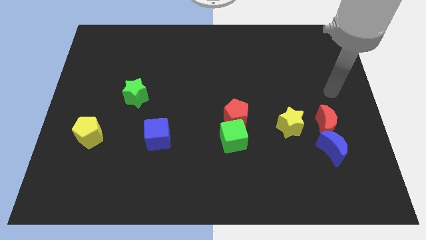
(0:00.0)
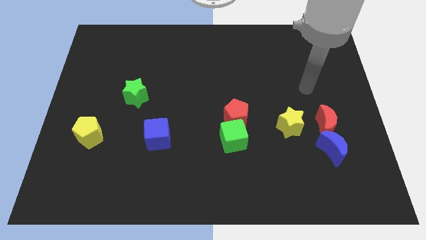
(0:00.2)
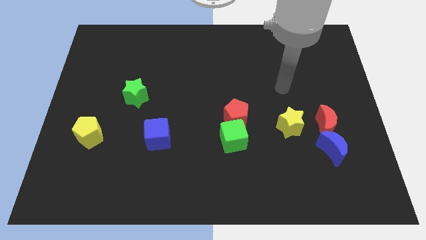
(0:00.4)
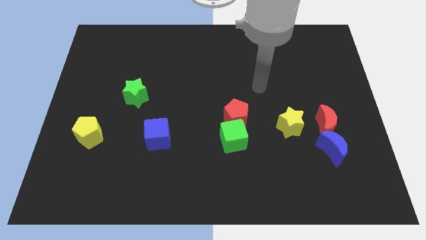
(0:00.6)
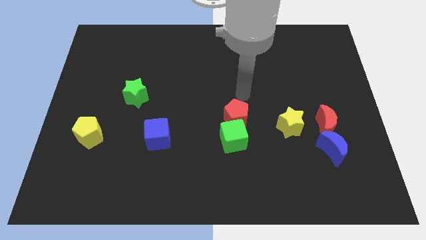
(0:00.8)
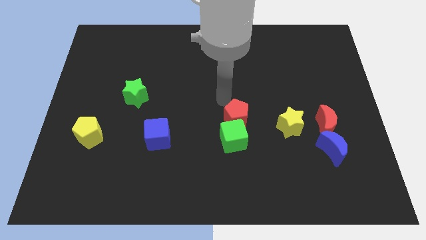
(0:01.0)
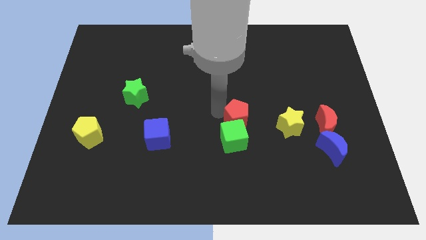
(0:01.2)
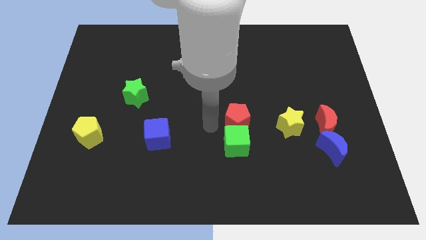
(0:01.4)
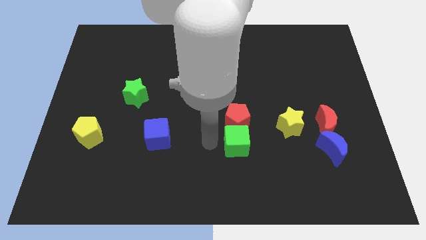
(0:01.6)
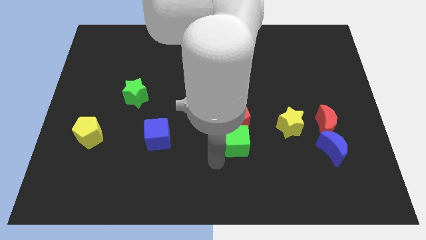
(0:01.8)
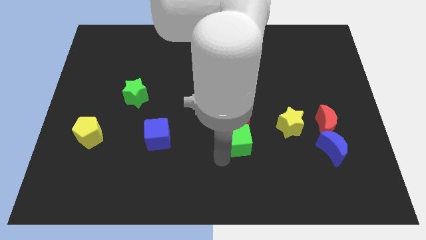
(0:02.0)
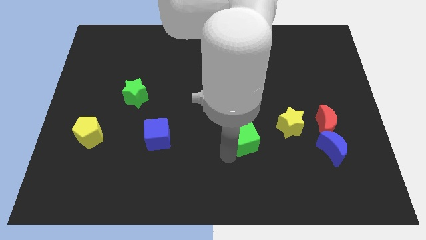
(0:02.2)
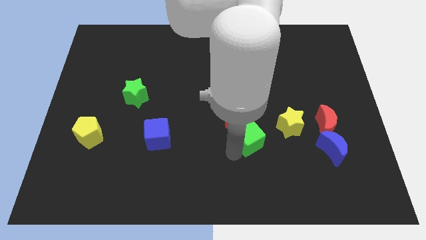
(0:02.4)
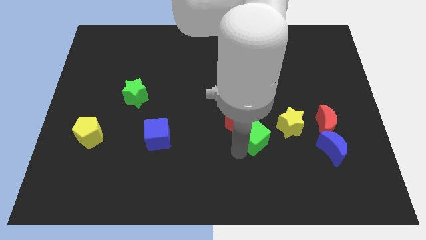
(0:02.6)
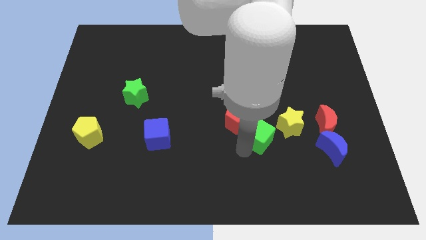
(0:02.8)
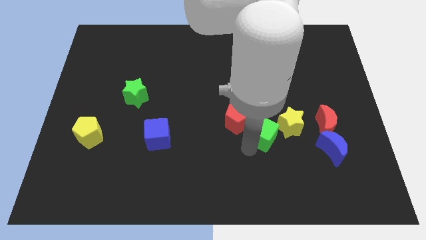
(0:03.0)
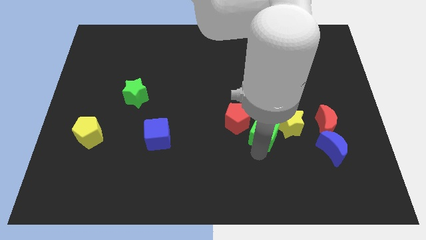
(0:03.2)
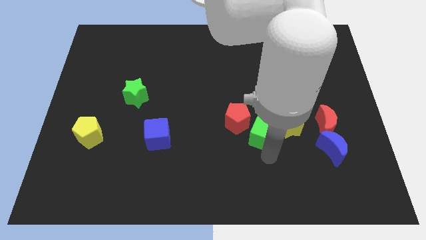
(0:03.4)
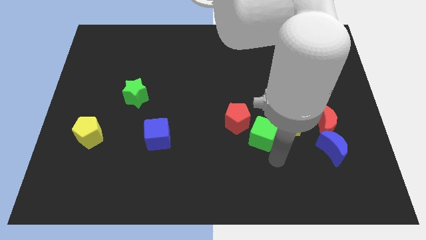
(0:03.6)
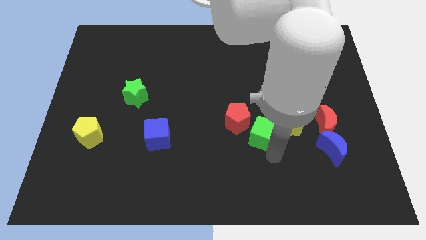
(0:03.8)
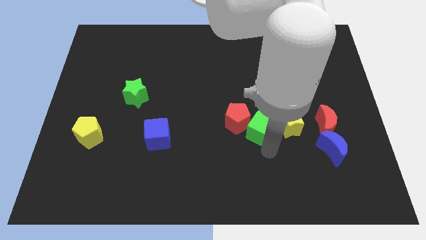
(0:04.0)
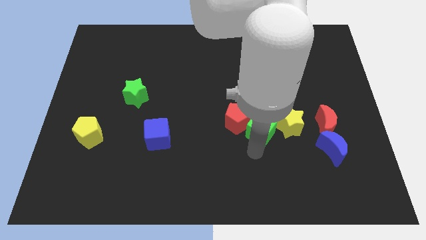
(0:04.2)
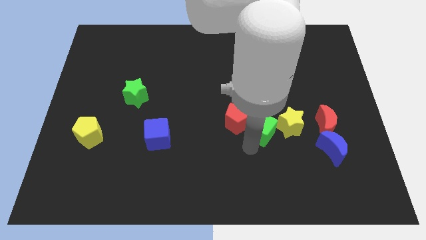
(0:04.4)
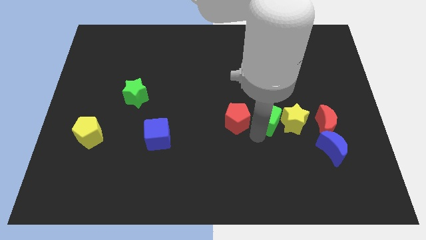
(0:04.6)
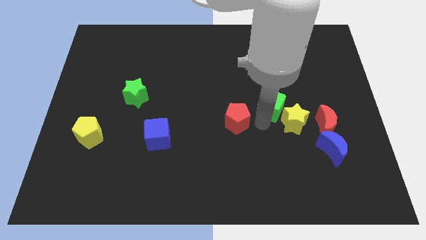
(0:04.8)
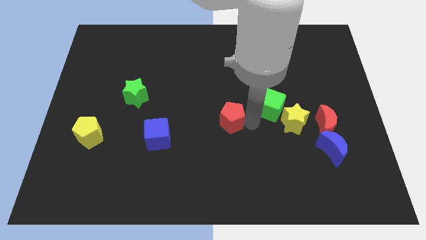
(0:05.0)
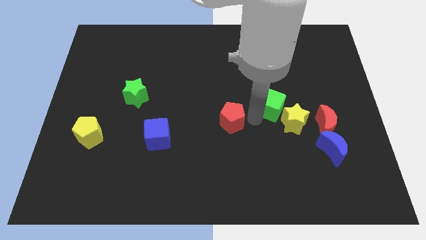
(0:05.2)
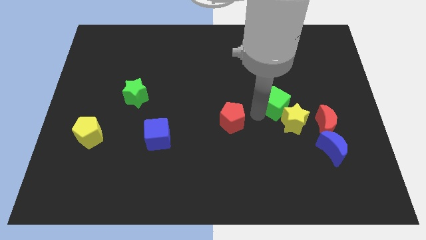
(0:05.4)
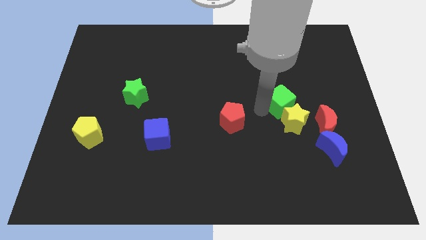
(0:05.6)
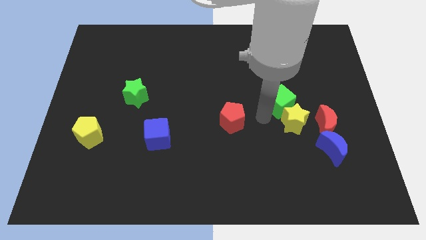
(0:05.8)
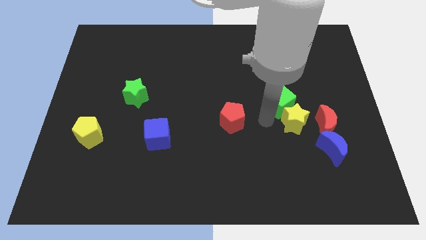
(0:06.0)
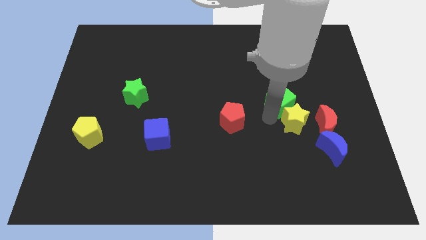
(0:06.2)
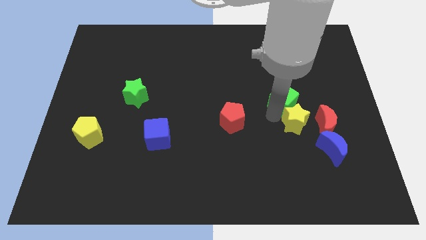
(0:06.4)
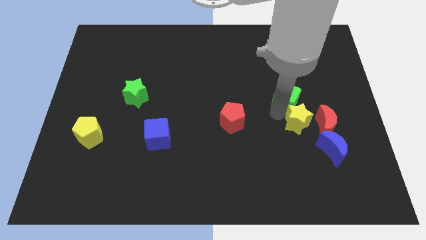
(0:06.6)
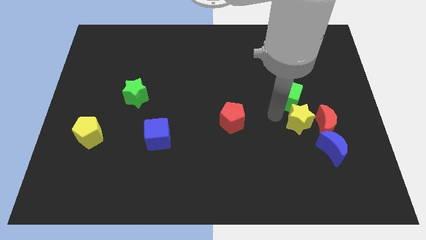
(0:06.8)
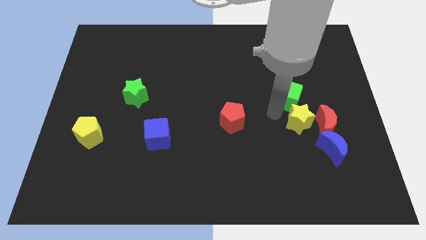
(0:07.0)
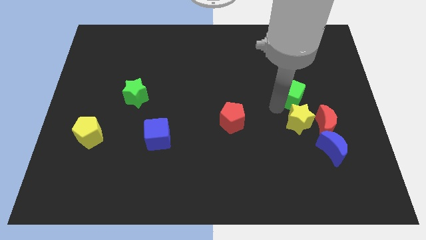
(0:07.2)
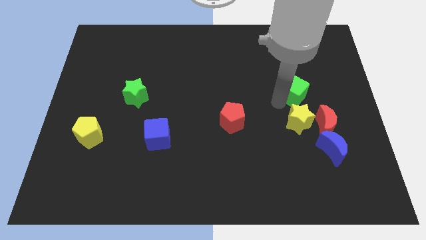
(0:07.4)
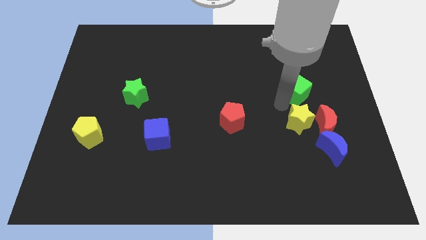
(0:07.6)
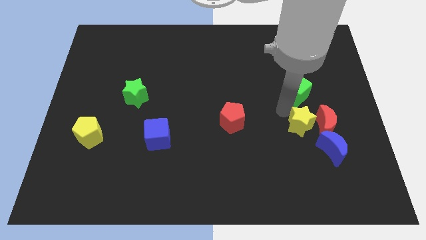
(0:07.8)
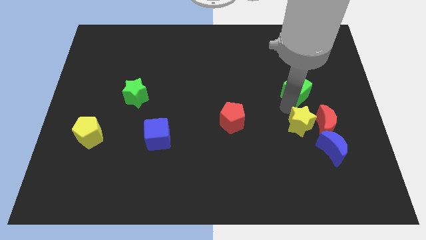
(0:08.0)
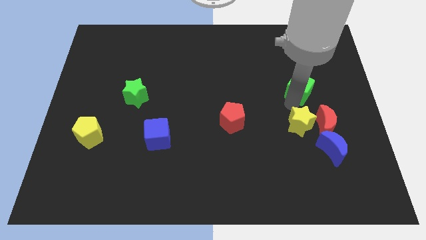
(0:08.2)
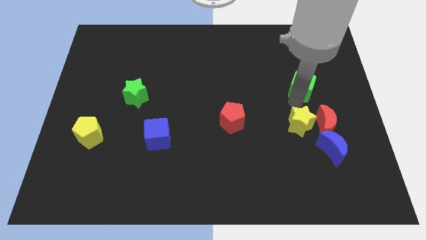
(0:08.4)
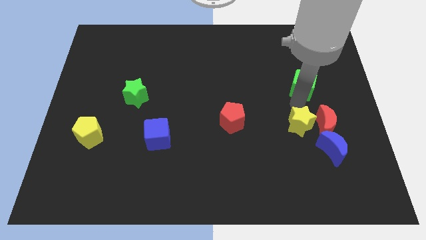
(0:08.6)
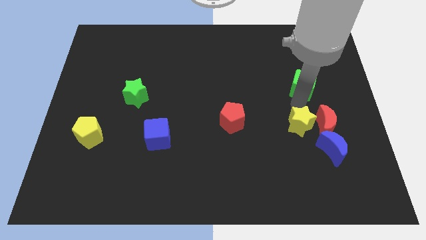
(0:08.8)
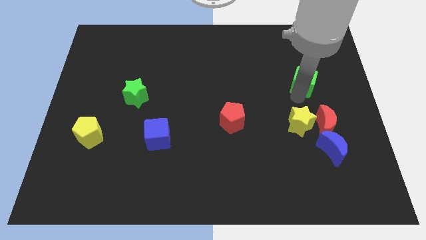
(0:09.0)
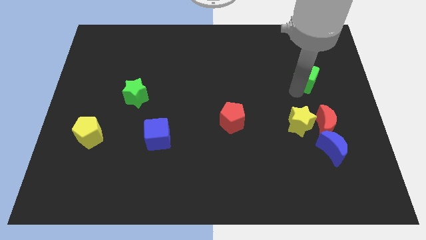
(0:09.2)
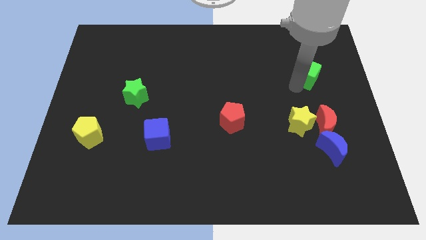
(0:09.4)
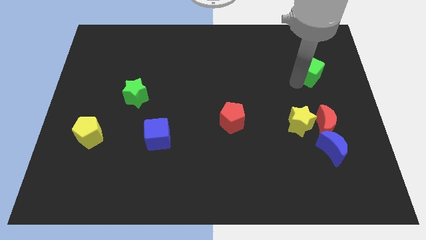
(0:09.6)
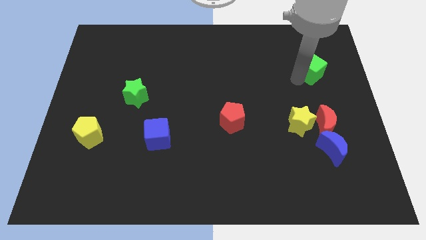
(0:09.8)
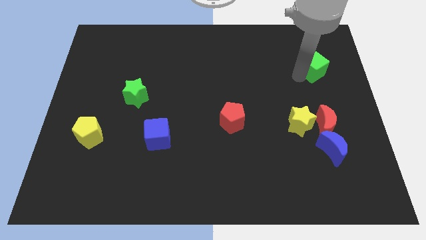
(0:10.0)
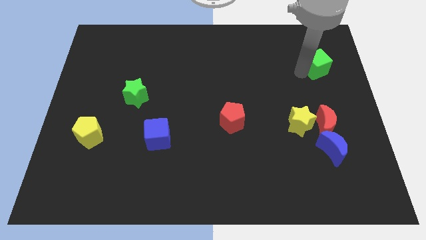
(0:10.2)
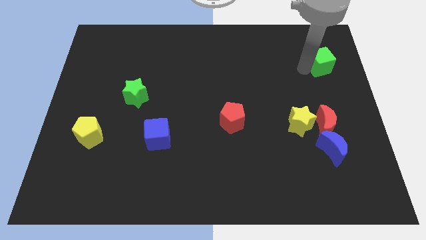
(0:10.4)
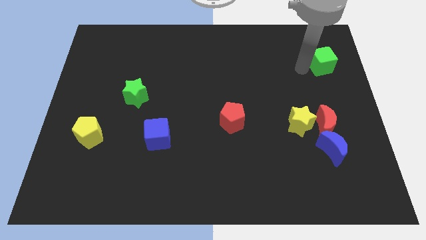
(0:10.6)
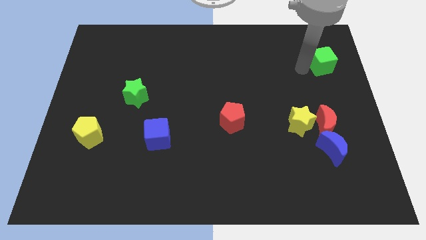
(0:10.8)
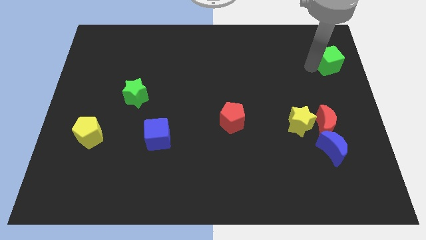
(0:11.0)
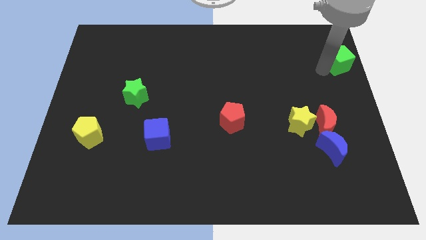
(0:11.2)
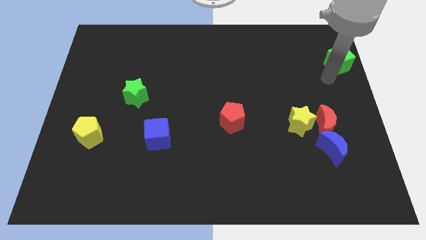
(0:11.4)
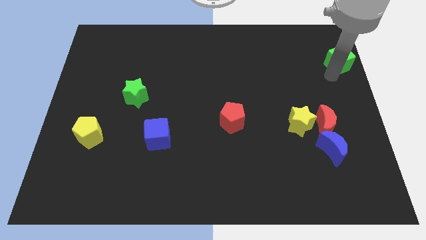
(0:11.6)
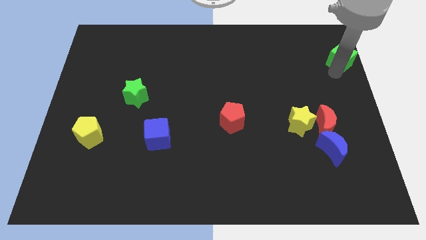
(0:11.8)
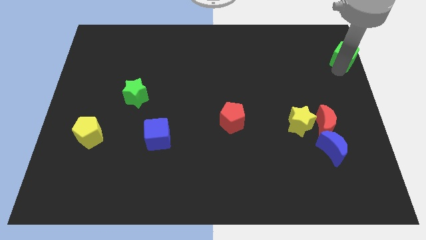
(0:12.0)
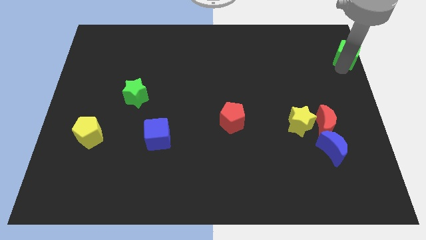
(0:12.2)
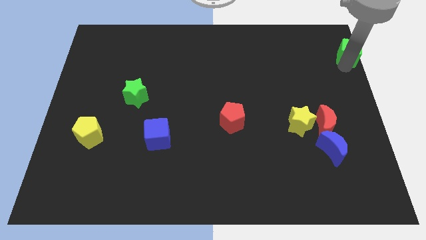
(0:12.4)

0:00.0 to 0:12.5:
push the green cube to the upper right corner
